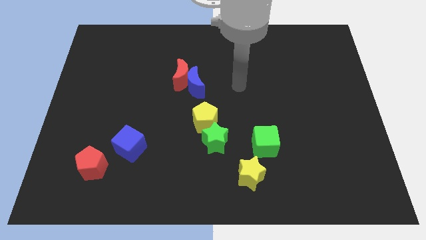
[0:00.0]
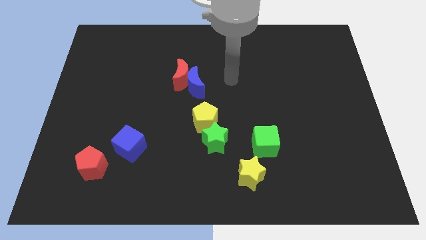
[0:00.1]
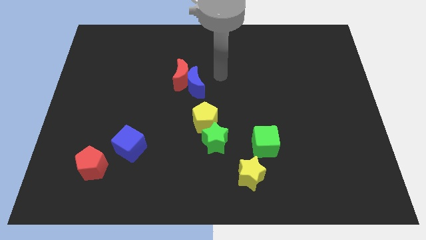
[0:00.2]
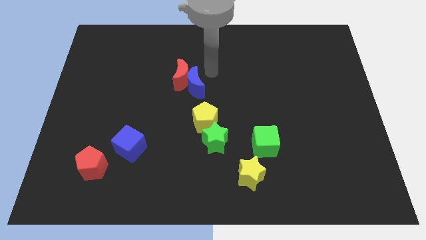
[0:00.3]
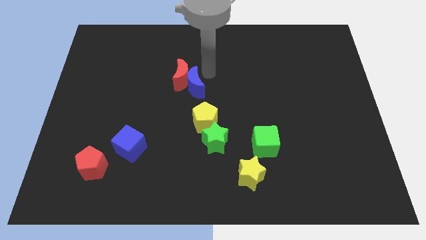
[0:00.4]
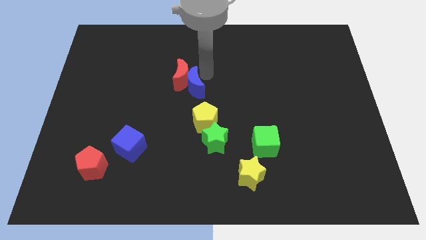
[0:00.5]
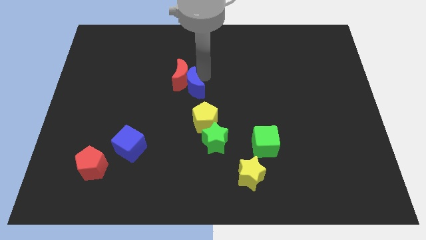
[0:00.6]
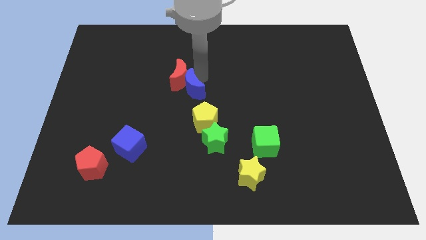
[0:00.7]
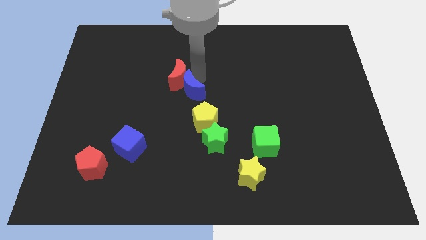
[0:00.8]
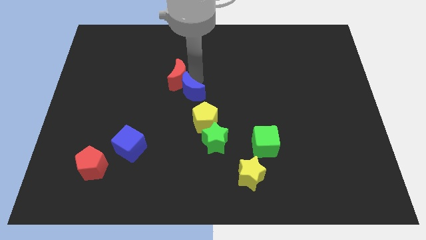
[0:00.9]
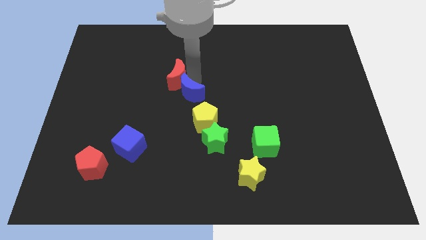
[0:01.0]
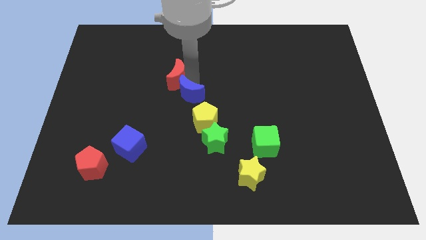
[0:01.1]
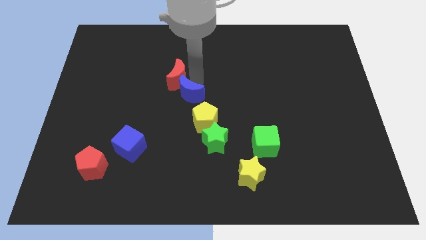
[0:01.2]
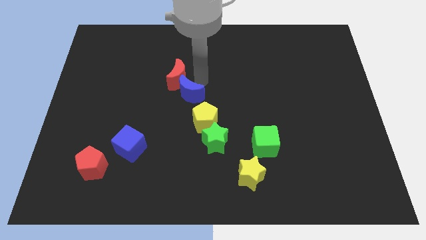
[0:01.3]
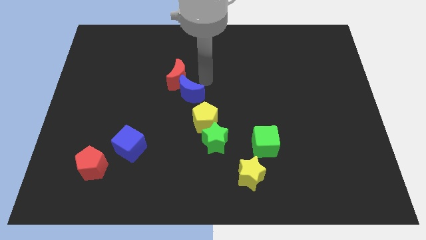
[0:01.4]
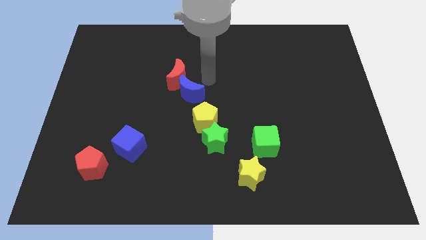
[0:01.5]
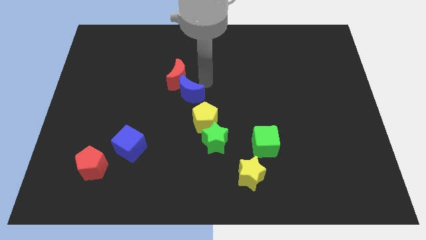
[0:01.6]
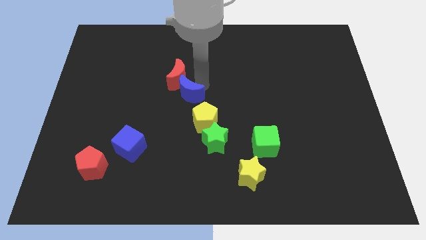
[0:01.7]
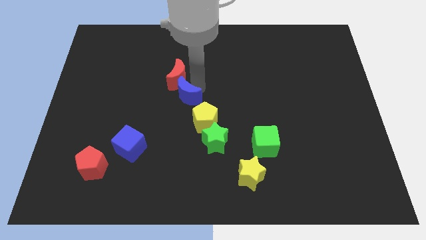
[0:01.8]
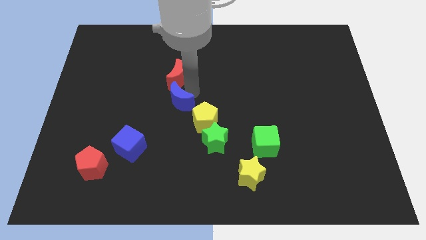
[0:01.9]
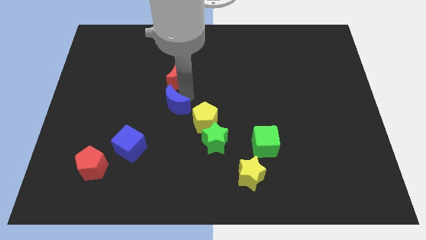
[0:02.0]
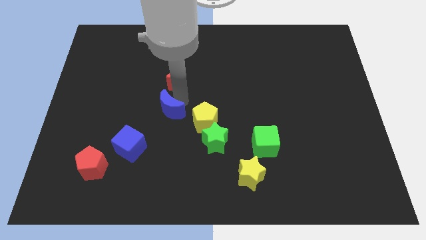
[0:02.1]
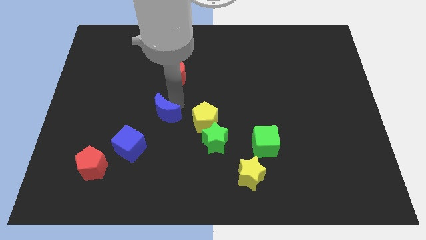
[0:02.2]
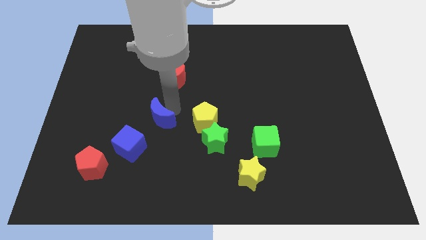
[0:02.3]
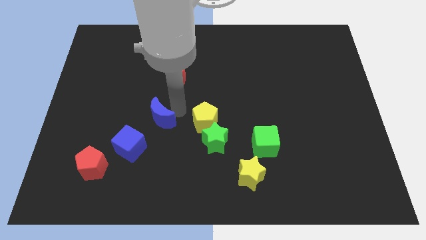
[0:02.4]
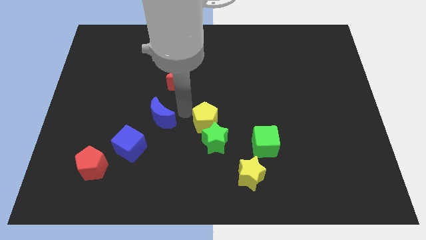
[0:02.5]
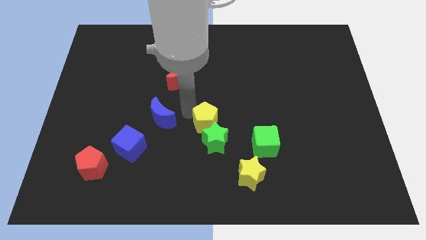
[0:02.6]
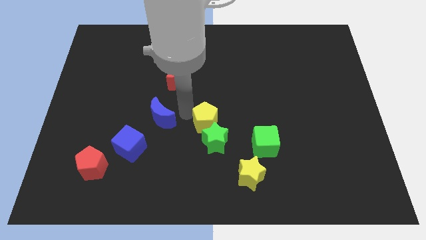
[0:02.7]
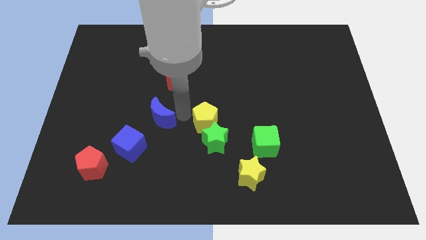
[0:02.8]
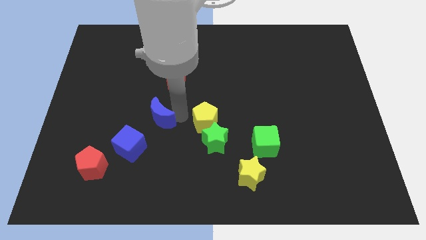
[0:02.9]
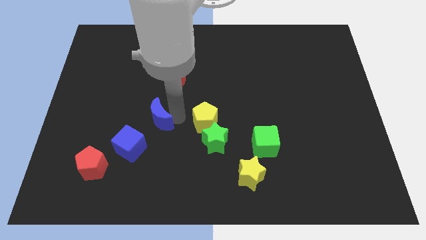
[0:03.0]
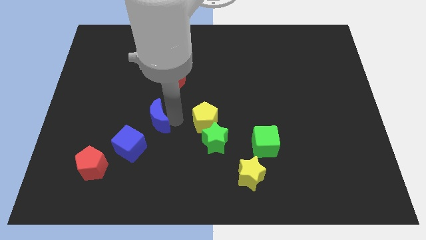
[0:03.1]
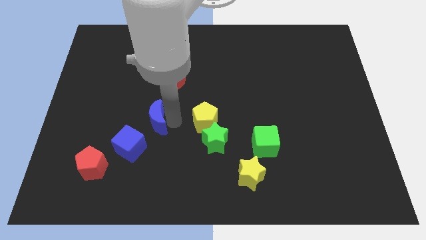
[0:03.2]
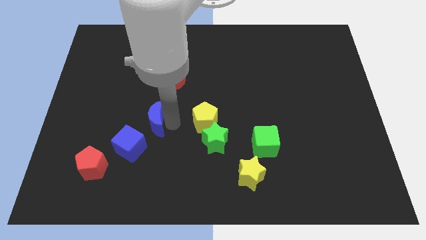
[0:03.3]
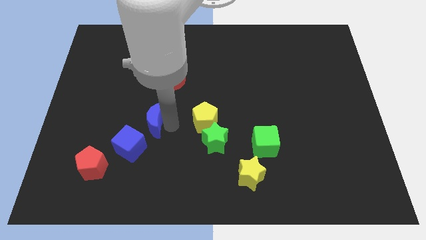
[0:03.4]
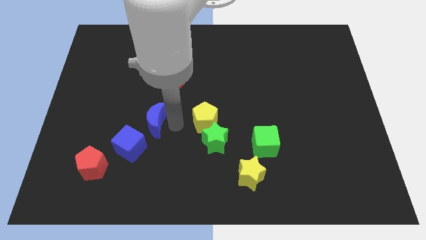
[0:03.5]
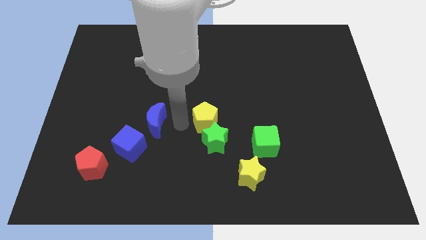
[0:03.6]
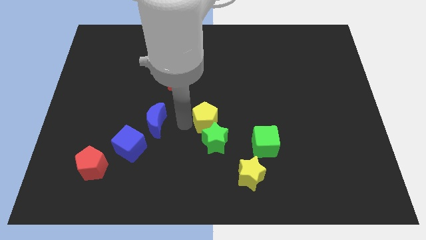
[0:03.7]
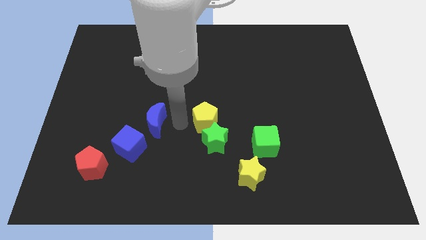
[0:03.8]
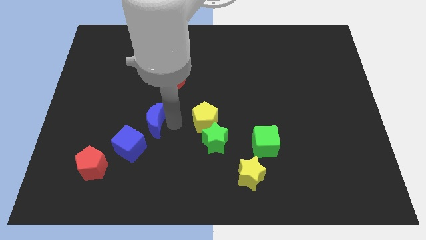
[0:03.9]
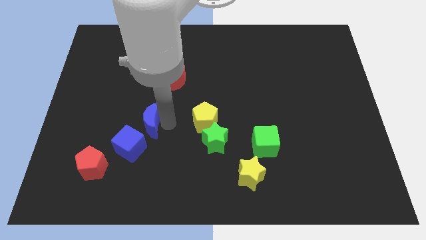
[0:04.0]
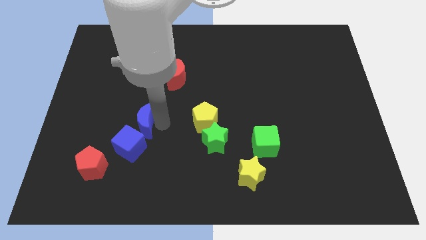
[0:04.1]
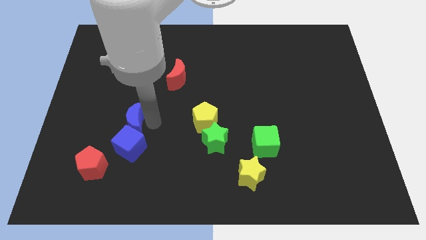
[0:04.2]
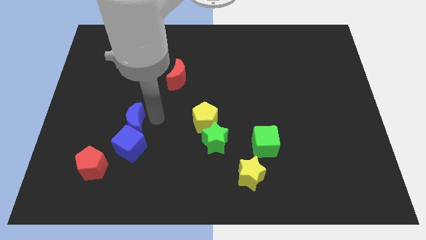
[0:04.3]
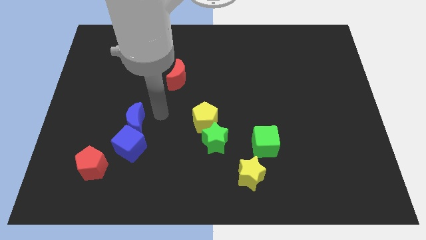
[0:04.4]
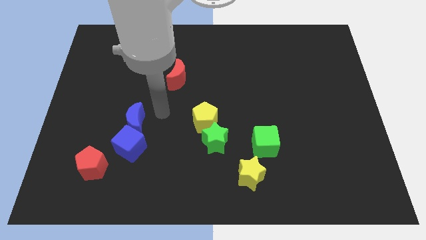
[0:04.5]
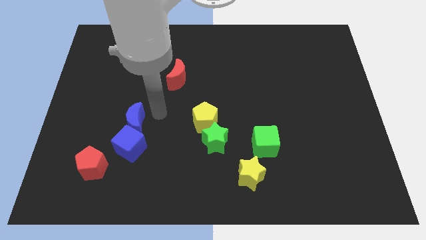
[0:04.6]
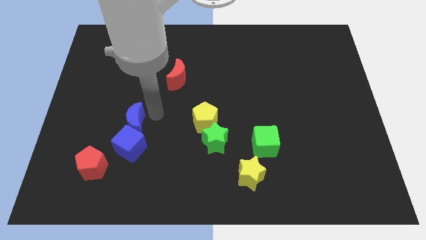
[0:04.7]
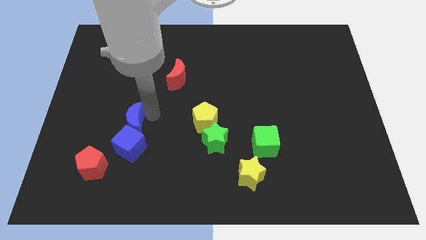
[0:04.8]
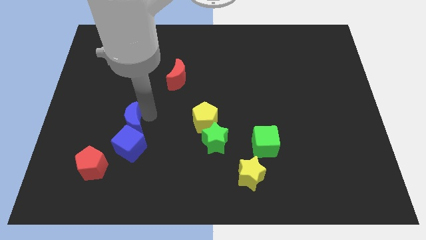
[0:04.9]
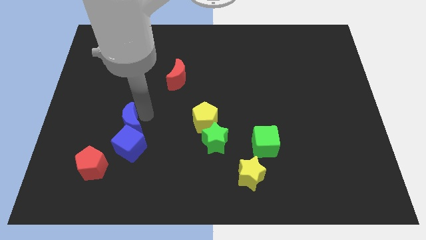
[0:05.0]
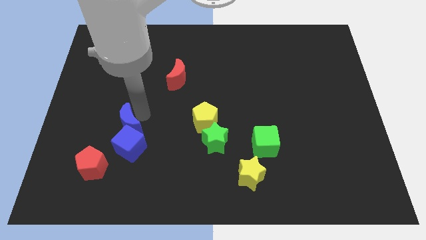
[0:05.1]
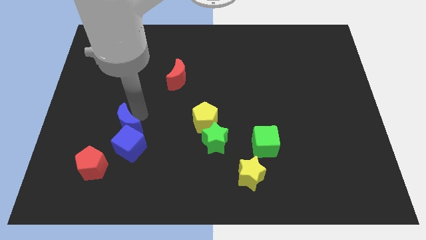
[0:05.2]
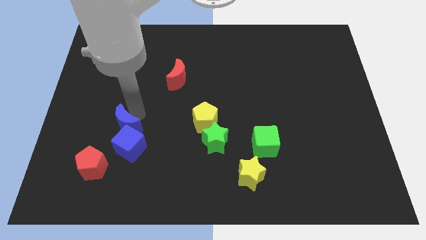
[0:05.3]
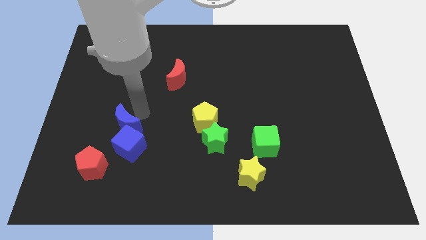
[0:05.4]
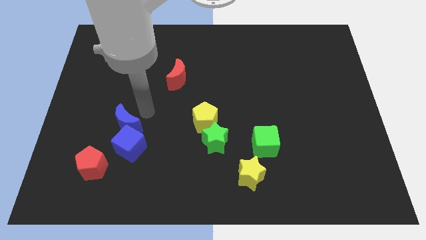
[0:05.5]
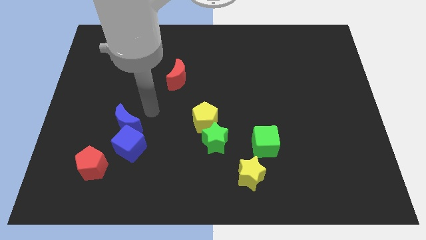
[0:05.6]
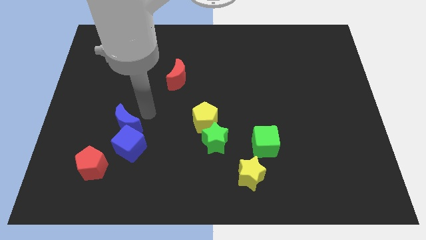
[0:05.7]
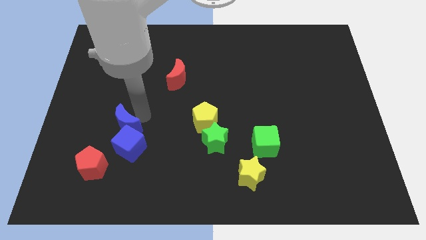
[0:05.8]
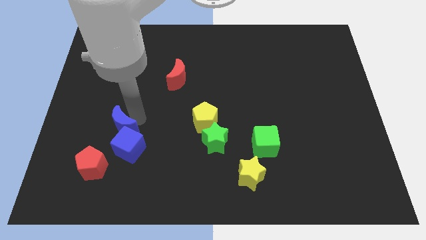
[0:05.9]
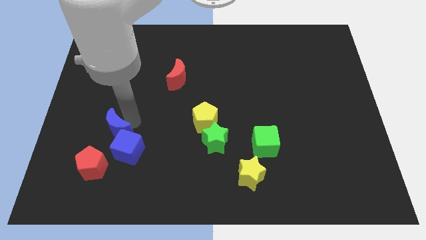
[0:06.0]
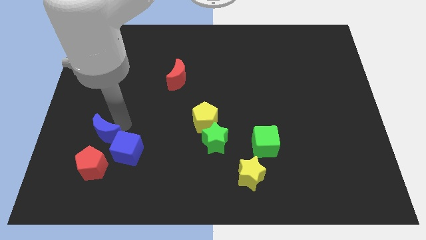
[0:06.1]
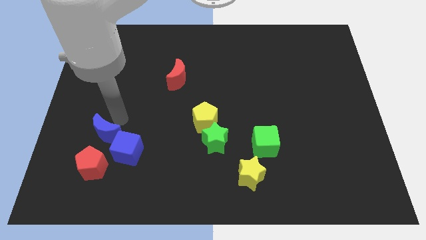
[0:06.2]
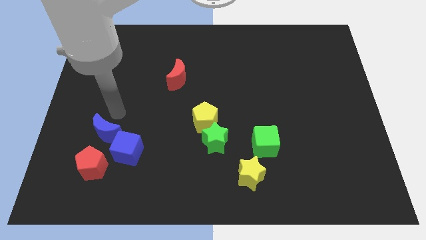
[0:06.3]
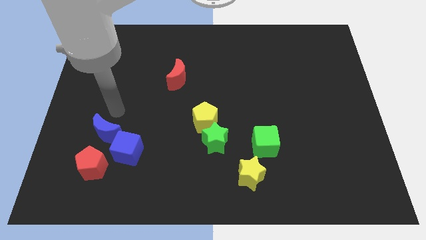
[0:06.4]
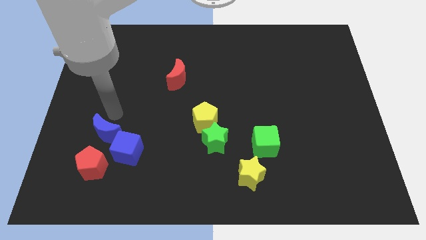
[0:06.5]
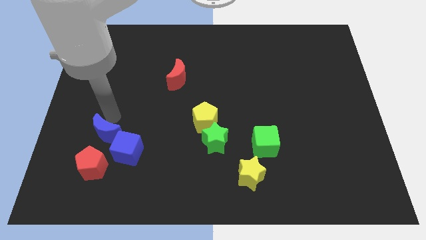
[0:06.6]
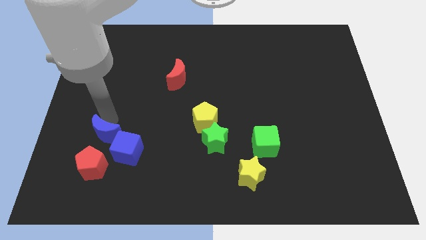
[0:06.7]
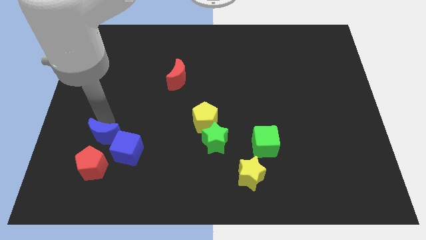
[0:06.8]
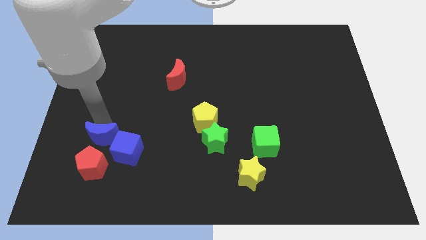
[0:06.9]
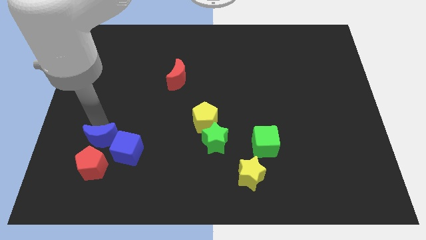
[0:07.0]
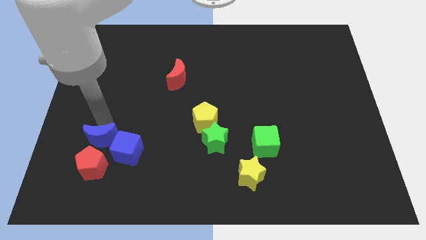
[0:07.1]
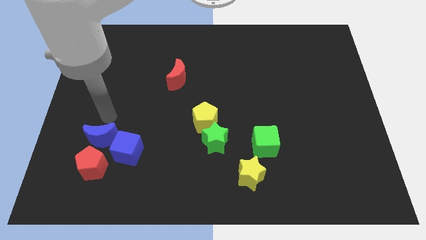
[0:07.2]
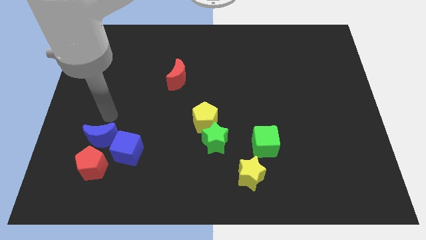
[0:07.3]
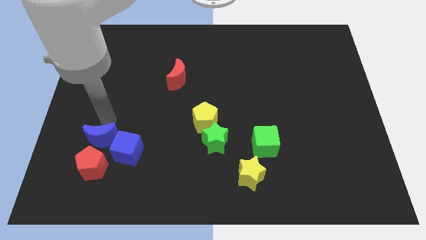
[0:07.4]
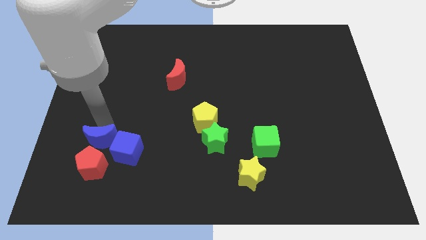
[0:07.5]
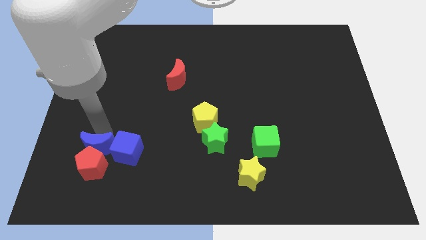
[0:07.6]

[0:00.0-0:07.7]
push the blue moon to the red pentagon
